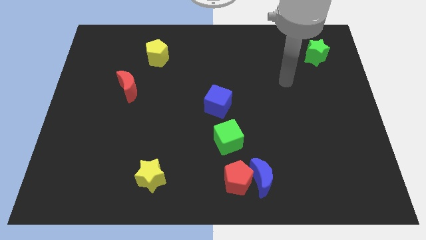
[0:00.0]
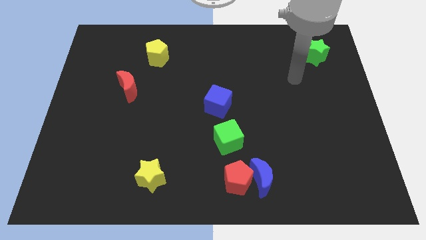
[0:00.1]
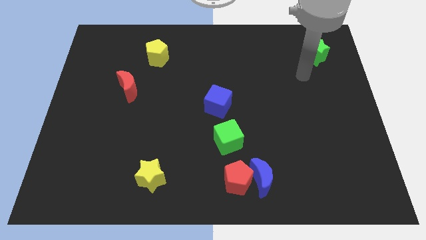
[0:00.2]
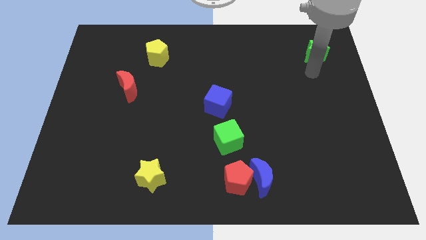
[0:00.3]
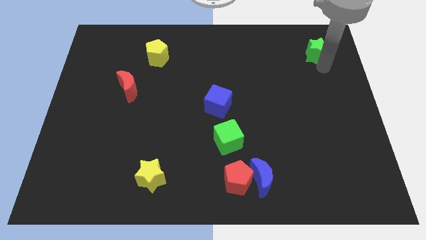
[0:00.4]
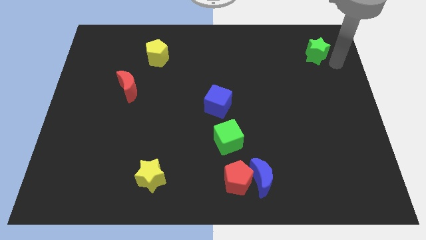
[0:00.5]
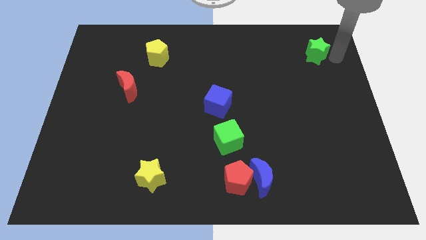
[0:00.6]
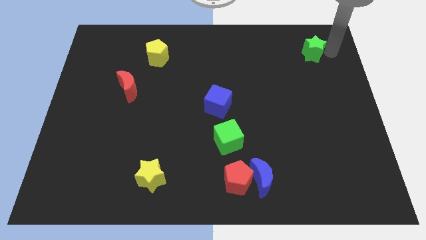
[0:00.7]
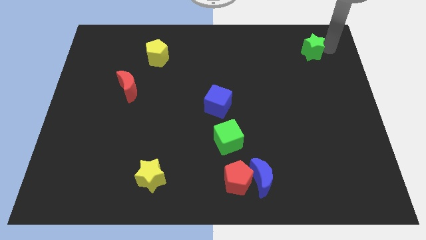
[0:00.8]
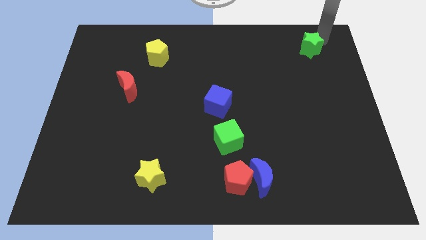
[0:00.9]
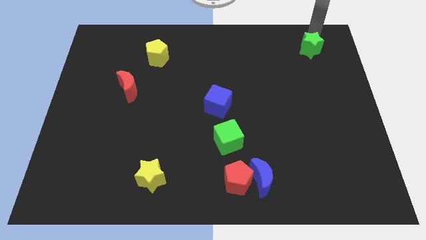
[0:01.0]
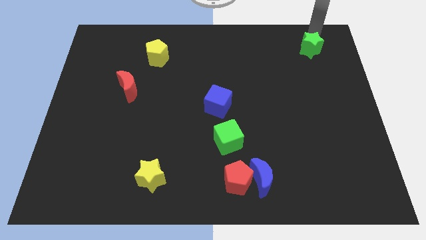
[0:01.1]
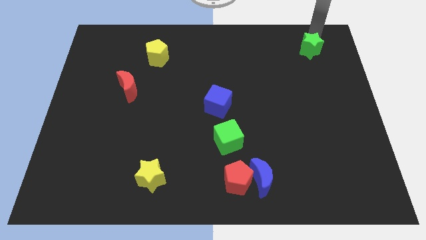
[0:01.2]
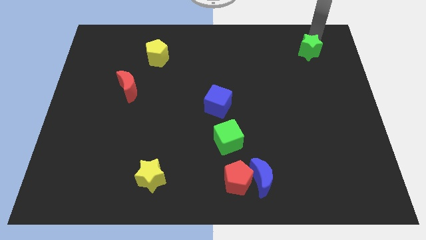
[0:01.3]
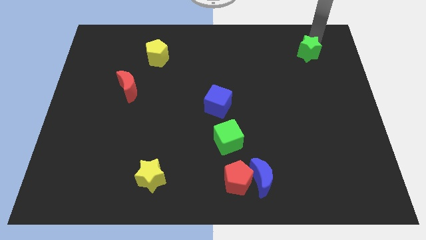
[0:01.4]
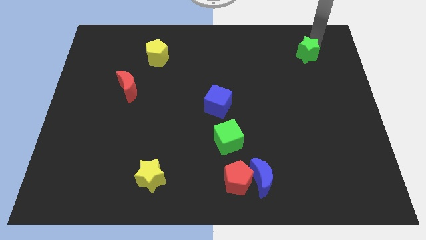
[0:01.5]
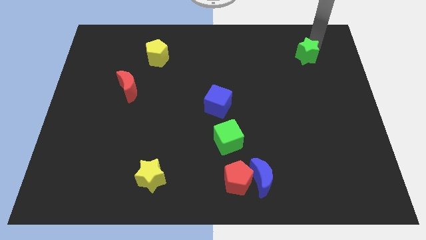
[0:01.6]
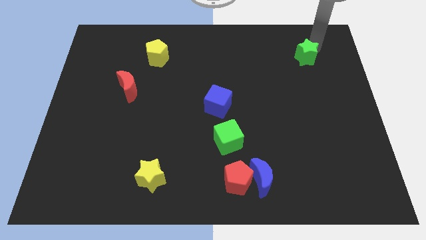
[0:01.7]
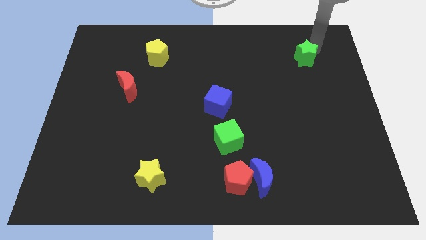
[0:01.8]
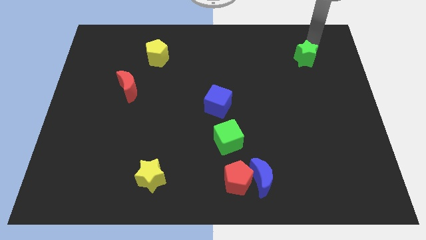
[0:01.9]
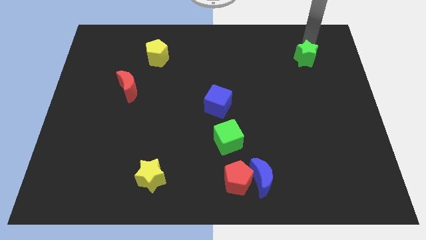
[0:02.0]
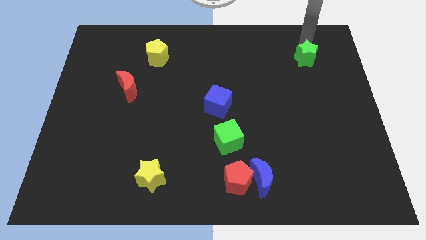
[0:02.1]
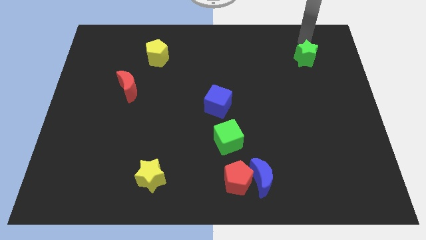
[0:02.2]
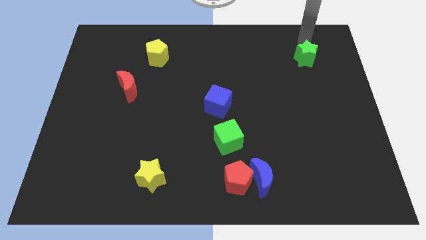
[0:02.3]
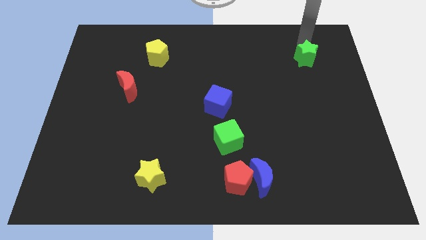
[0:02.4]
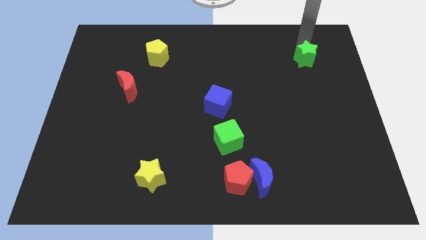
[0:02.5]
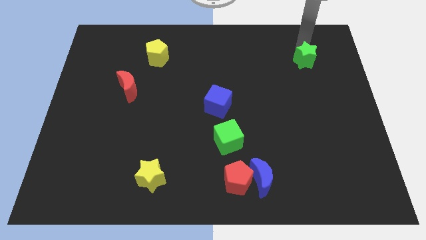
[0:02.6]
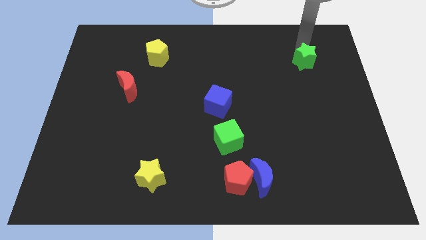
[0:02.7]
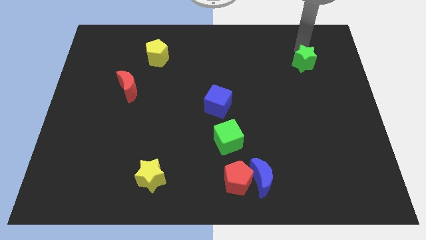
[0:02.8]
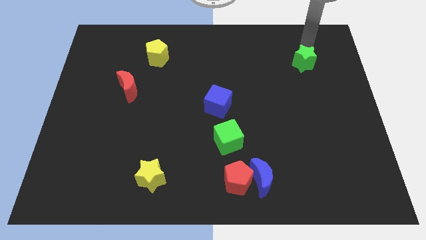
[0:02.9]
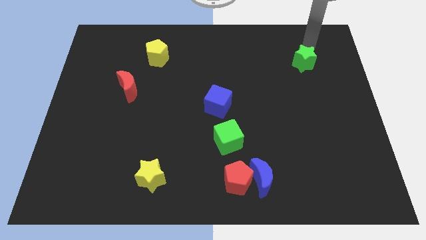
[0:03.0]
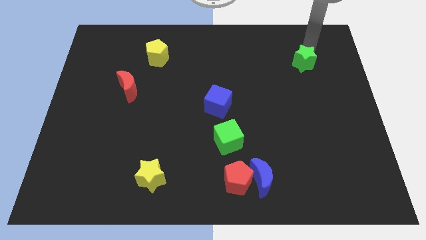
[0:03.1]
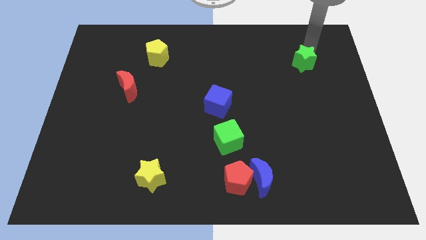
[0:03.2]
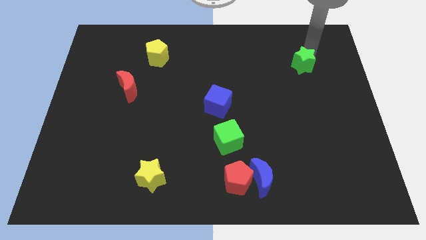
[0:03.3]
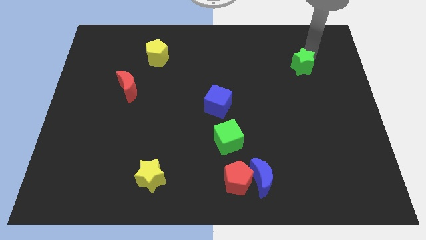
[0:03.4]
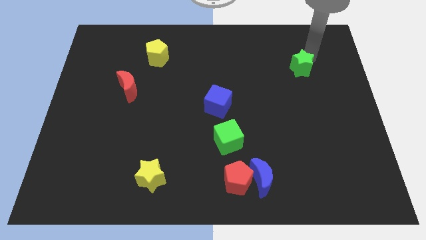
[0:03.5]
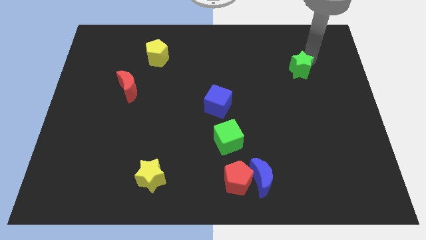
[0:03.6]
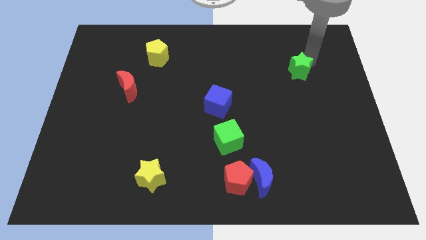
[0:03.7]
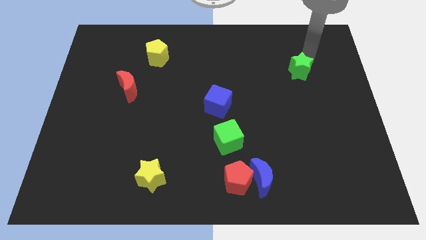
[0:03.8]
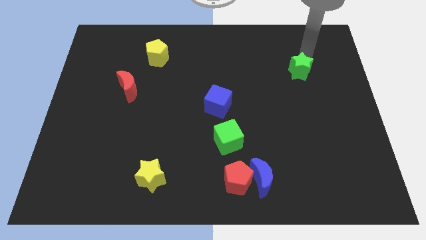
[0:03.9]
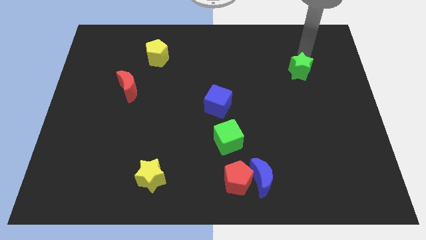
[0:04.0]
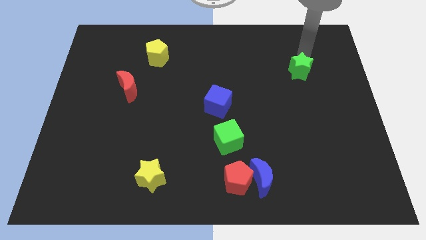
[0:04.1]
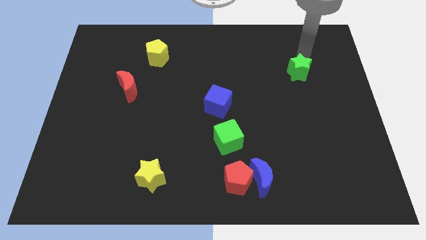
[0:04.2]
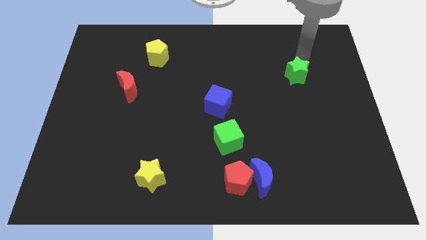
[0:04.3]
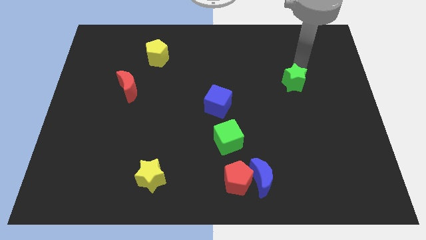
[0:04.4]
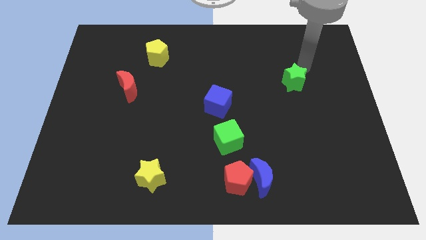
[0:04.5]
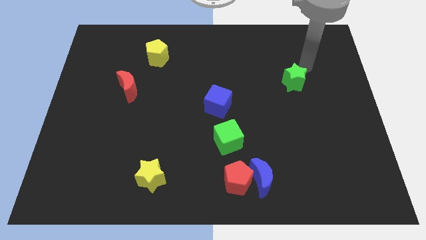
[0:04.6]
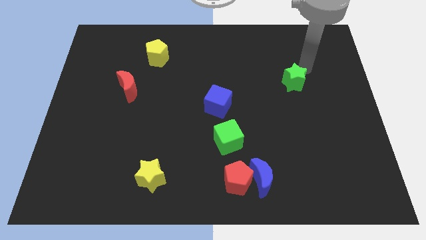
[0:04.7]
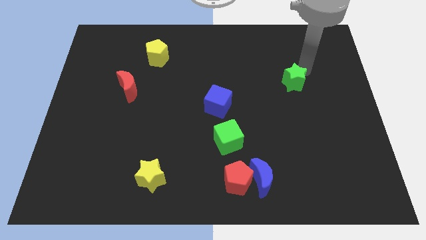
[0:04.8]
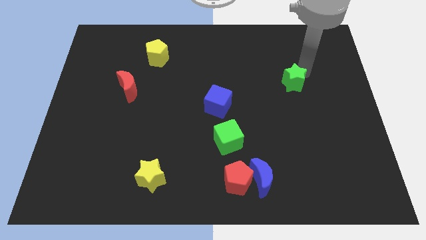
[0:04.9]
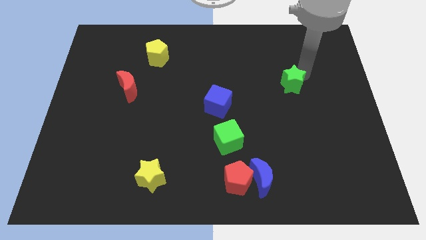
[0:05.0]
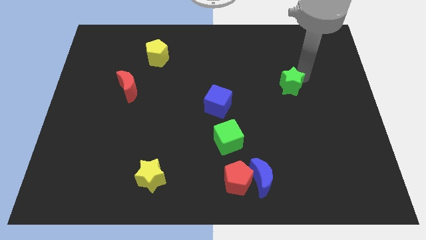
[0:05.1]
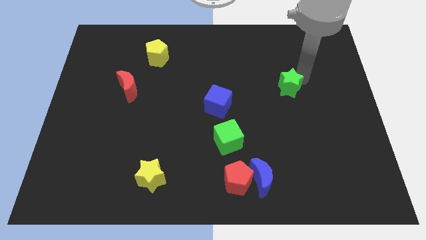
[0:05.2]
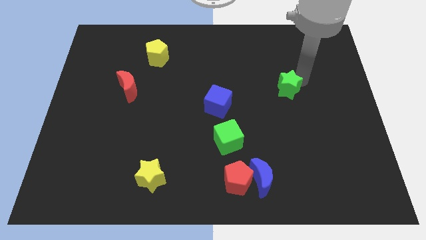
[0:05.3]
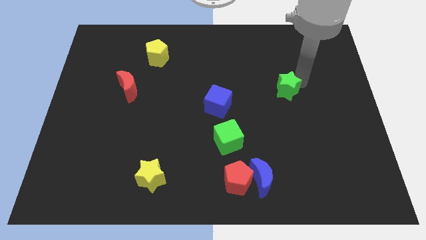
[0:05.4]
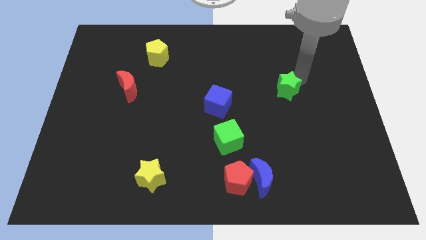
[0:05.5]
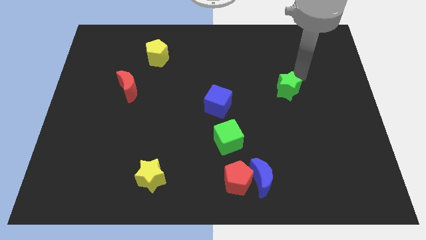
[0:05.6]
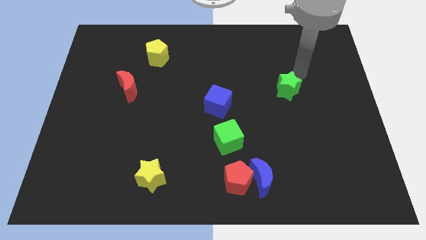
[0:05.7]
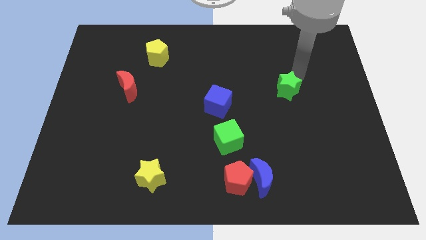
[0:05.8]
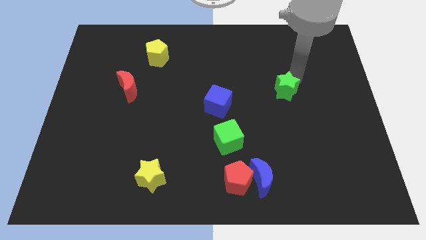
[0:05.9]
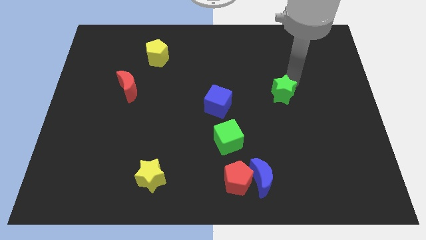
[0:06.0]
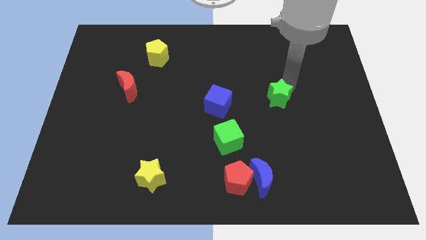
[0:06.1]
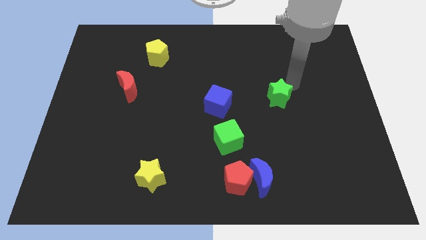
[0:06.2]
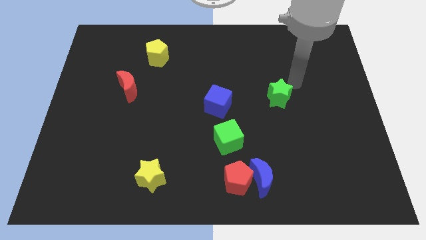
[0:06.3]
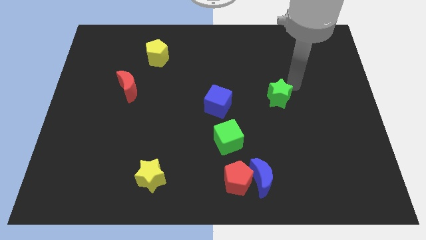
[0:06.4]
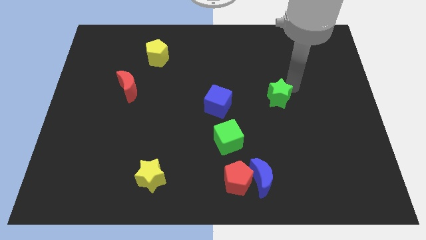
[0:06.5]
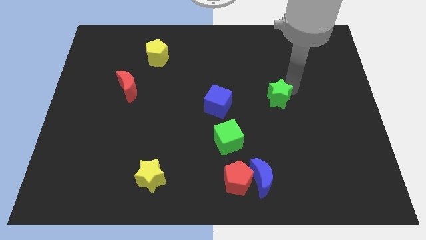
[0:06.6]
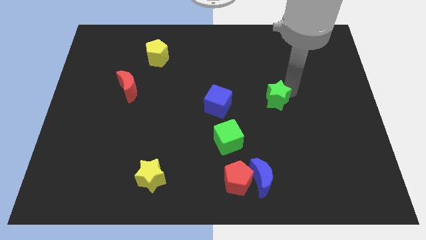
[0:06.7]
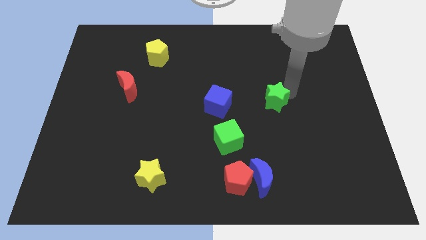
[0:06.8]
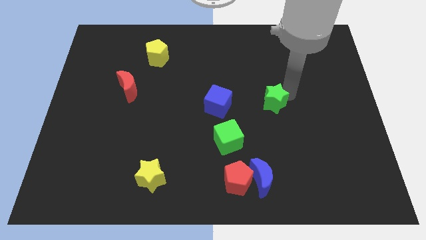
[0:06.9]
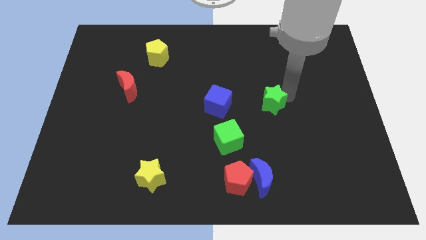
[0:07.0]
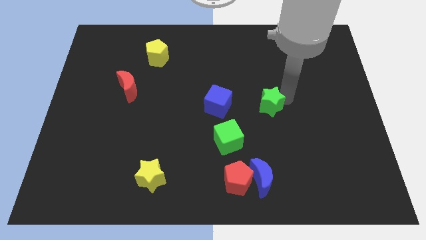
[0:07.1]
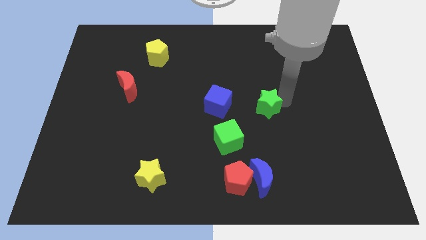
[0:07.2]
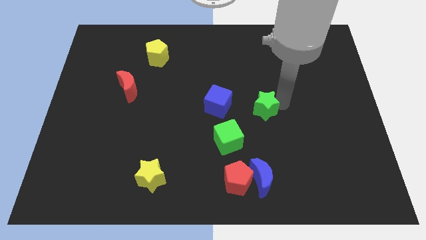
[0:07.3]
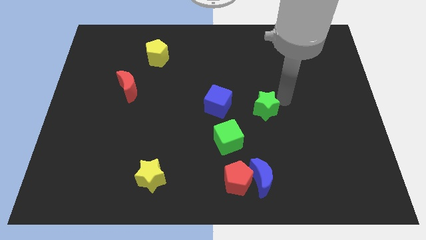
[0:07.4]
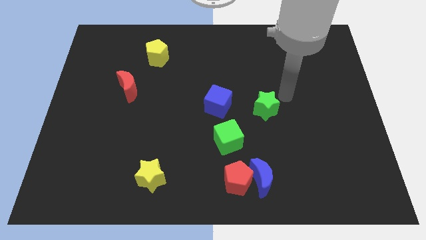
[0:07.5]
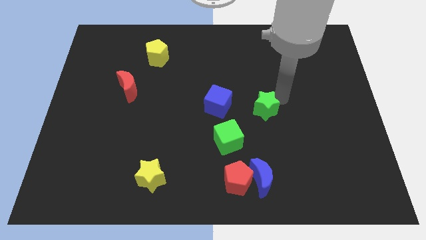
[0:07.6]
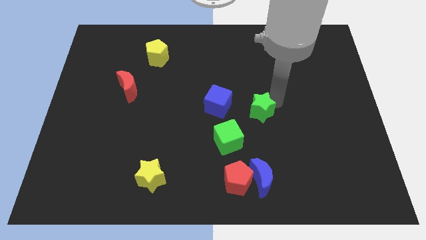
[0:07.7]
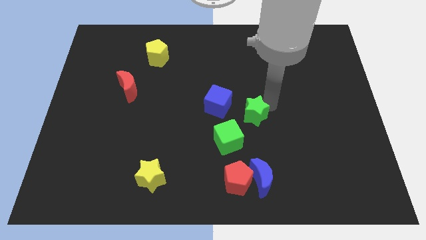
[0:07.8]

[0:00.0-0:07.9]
slide the green star to the bottom right side of the blue cube

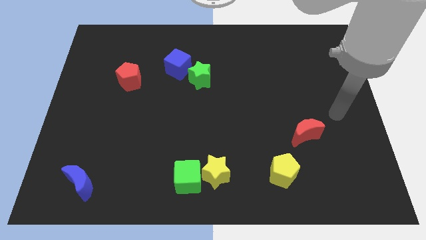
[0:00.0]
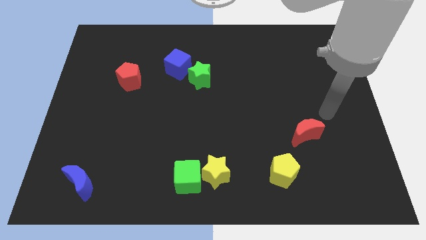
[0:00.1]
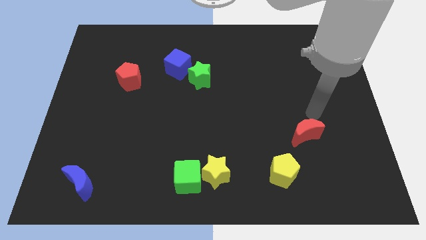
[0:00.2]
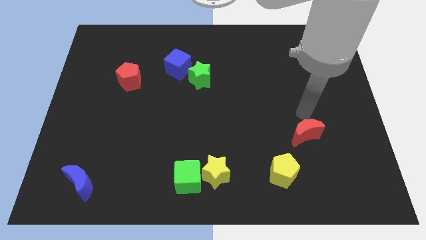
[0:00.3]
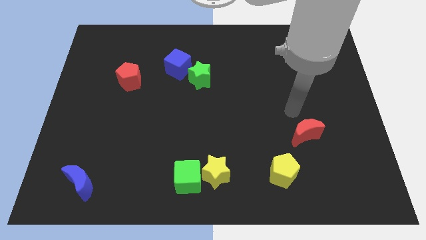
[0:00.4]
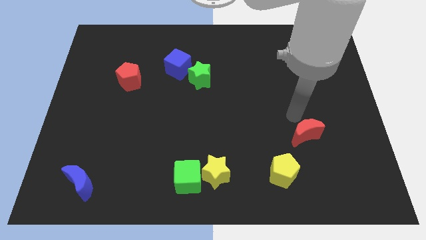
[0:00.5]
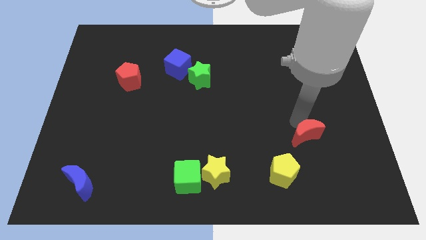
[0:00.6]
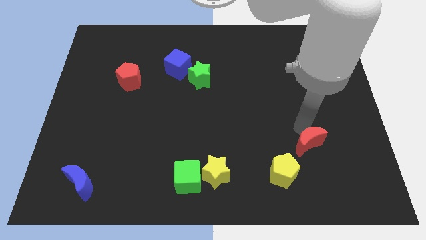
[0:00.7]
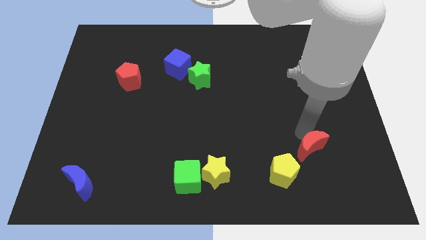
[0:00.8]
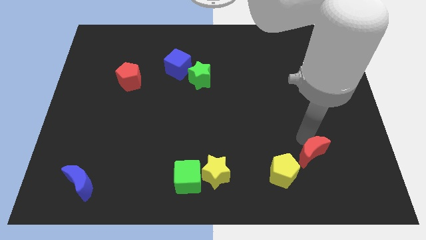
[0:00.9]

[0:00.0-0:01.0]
slide the red moon just right of the yellow pentagon
